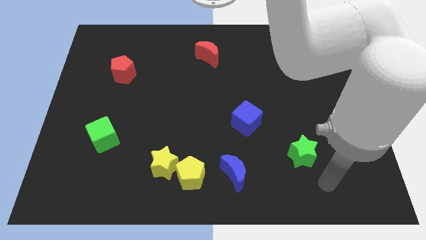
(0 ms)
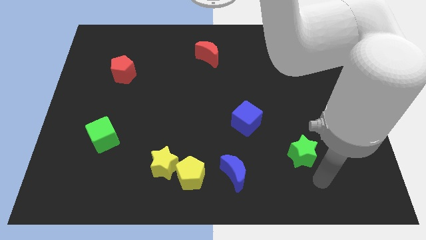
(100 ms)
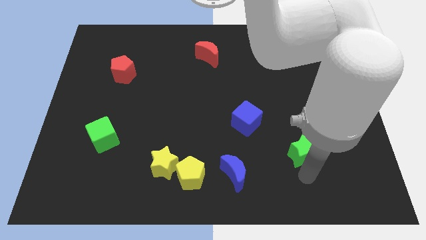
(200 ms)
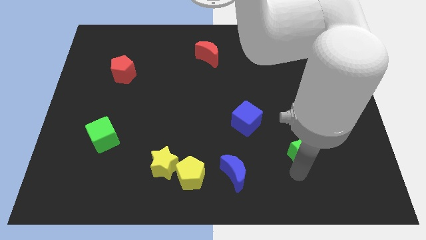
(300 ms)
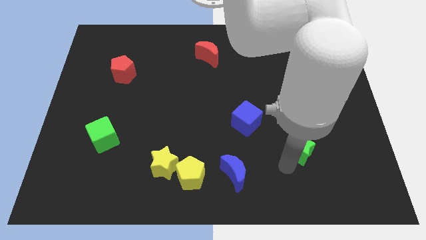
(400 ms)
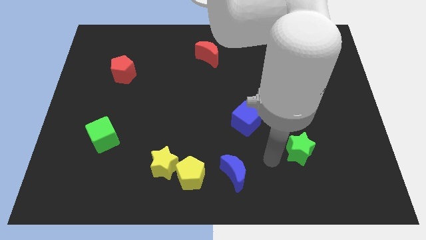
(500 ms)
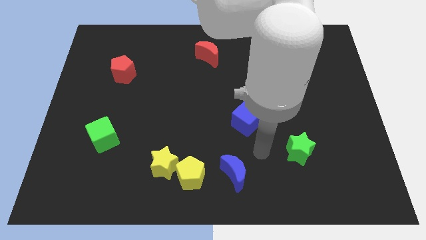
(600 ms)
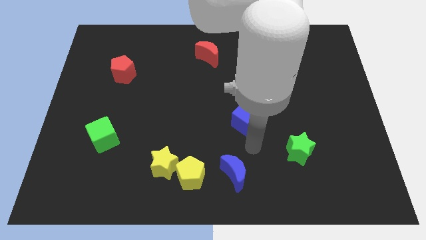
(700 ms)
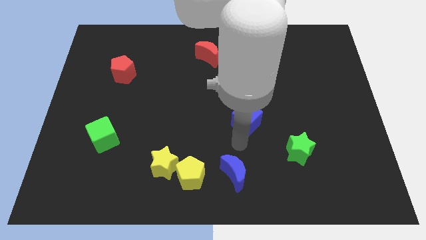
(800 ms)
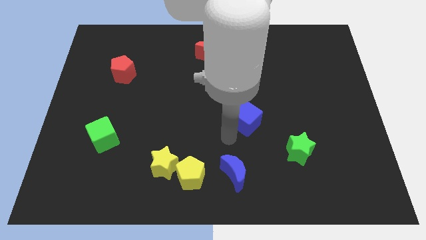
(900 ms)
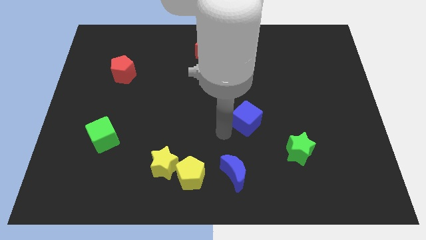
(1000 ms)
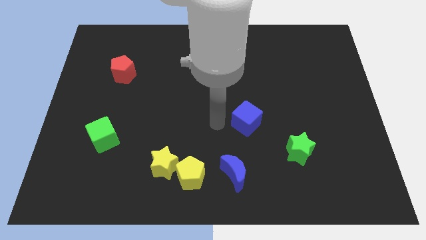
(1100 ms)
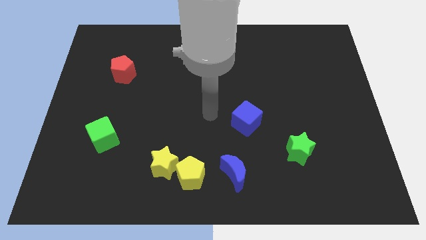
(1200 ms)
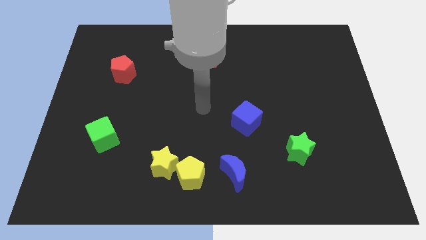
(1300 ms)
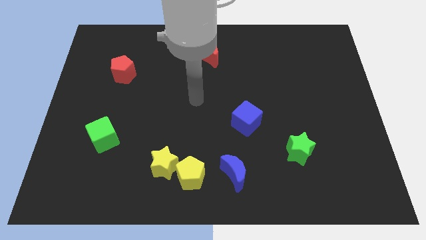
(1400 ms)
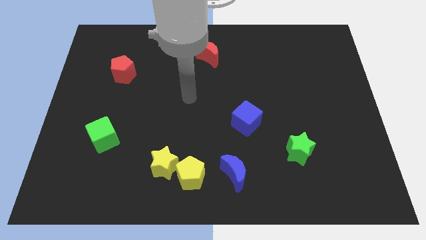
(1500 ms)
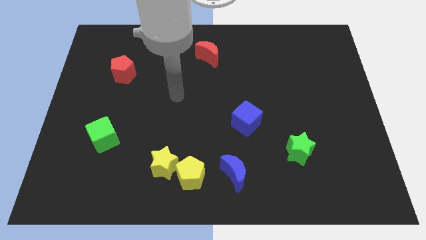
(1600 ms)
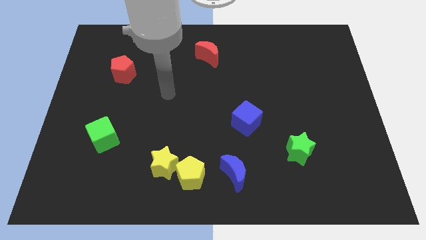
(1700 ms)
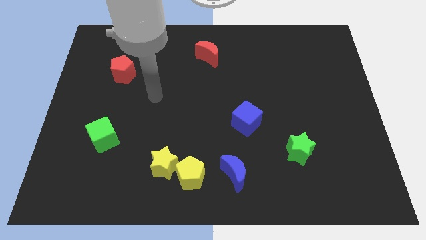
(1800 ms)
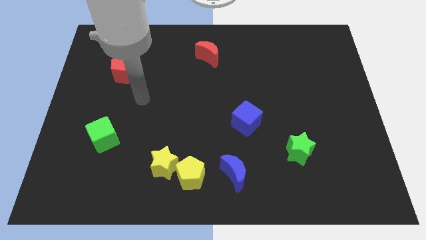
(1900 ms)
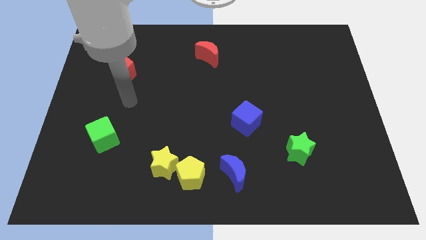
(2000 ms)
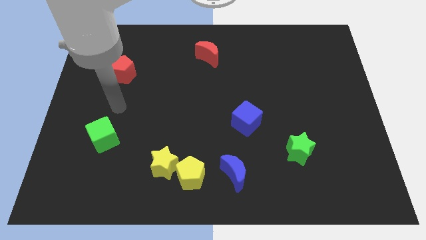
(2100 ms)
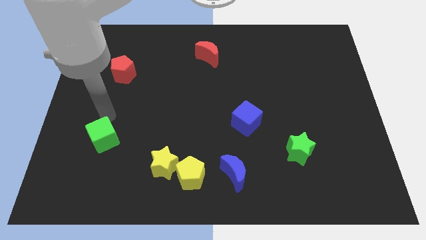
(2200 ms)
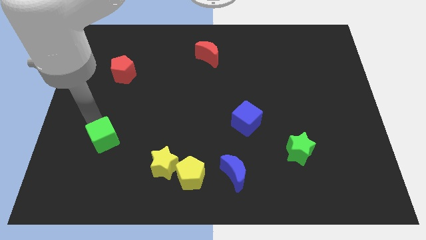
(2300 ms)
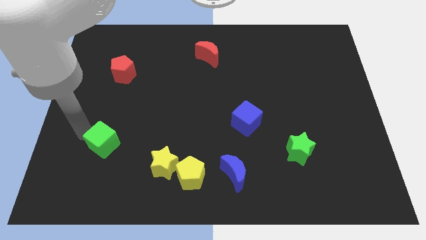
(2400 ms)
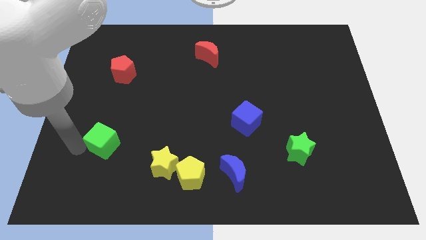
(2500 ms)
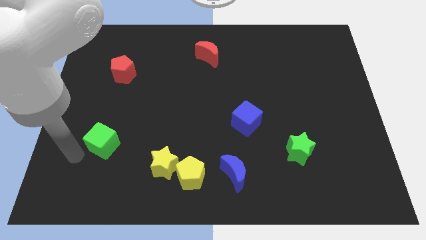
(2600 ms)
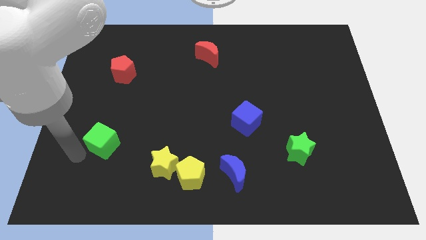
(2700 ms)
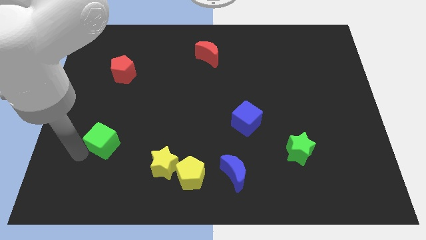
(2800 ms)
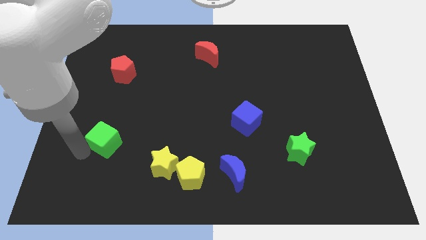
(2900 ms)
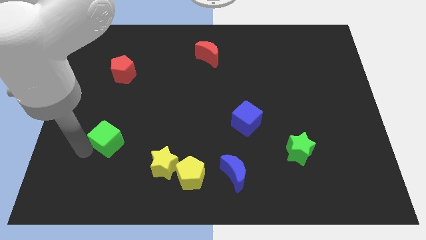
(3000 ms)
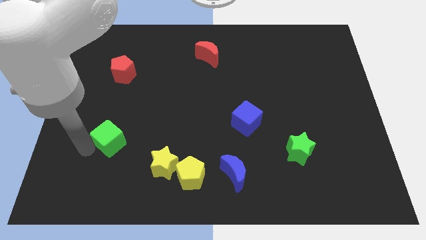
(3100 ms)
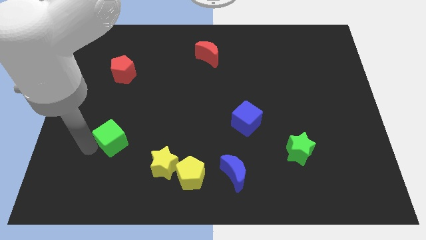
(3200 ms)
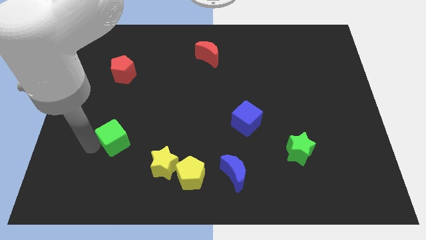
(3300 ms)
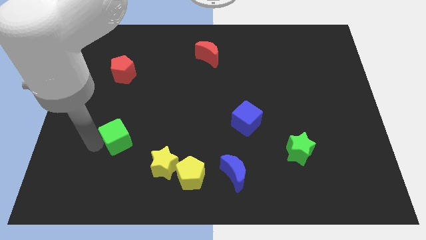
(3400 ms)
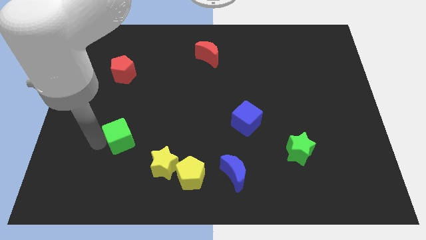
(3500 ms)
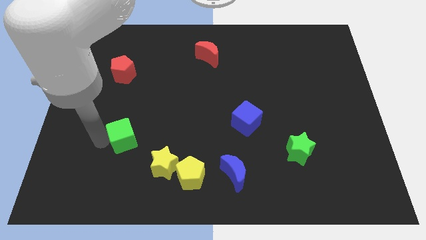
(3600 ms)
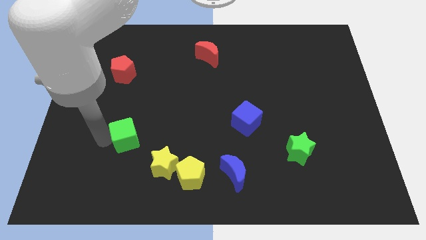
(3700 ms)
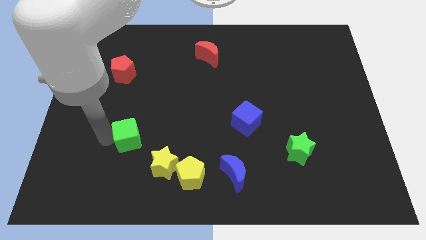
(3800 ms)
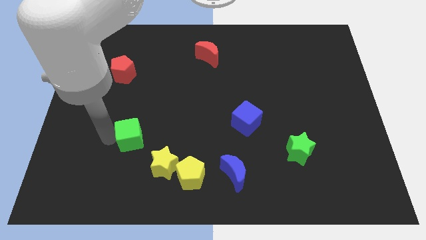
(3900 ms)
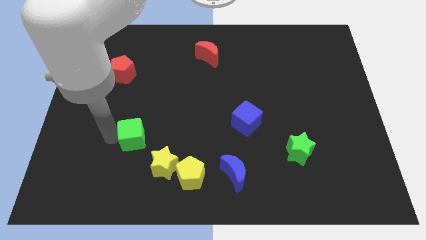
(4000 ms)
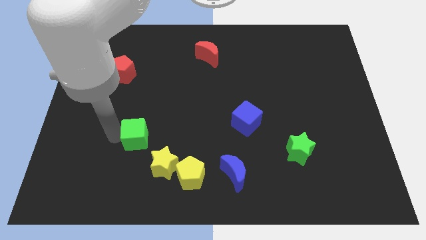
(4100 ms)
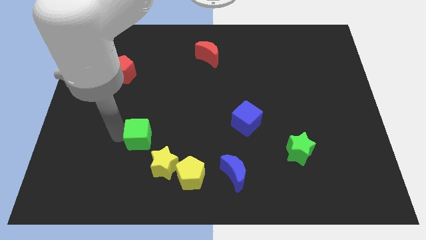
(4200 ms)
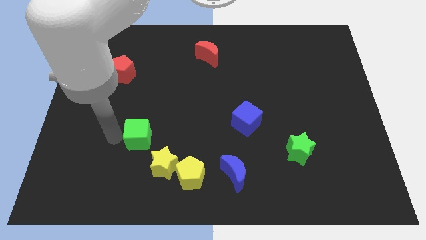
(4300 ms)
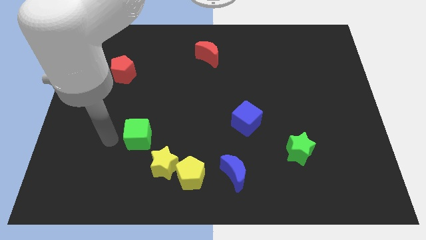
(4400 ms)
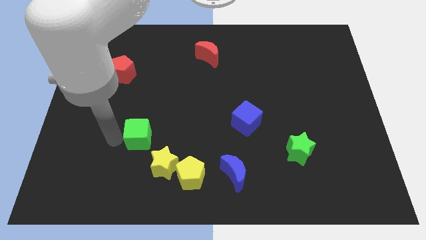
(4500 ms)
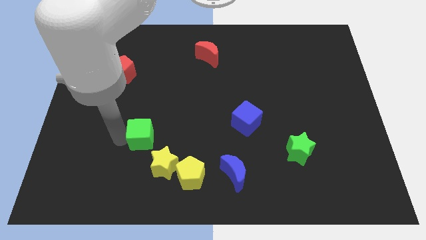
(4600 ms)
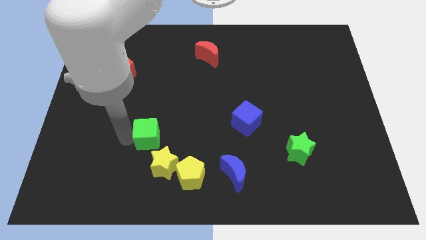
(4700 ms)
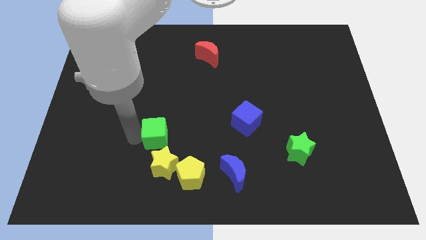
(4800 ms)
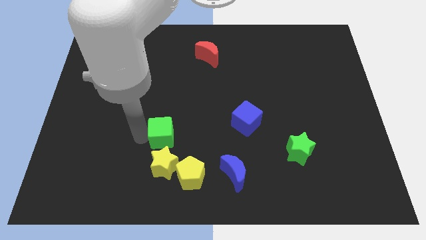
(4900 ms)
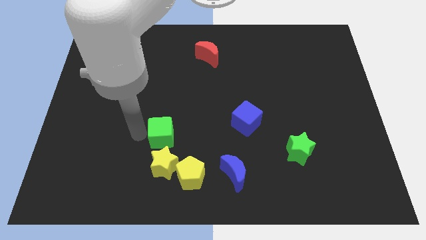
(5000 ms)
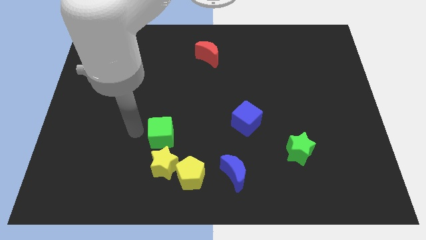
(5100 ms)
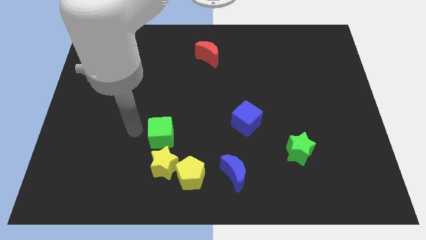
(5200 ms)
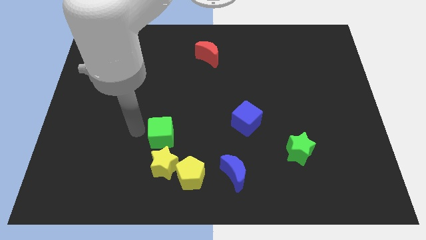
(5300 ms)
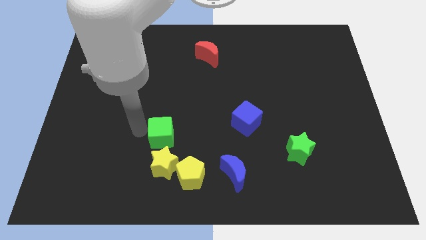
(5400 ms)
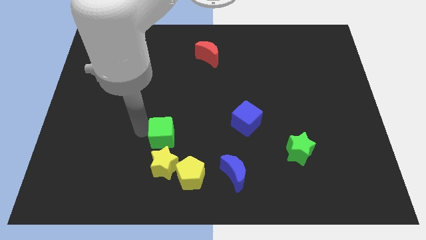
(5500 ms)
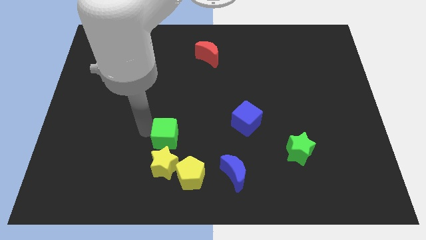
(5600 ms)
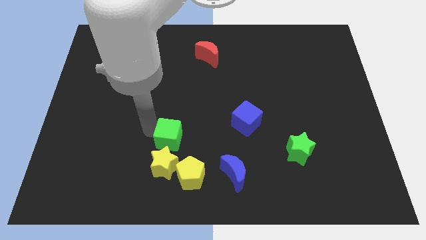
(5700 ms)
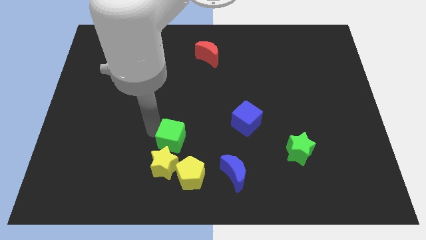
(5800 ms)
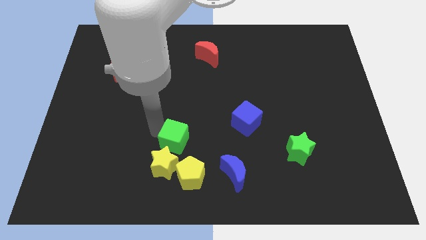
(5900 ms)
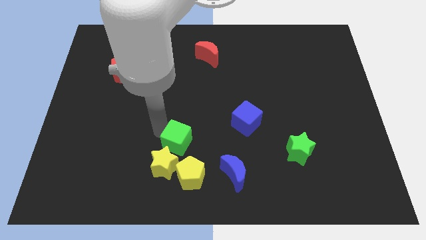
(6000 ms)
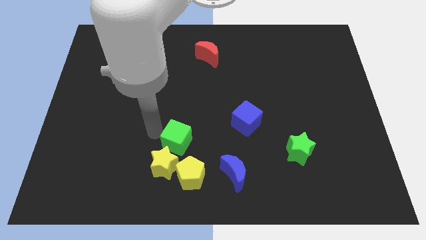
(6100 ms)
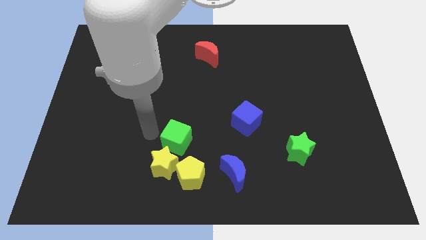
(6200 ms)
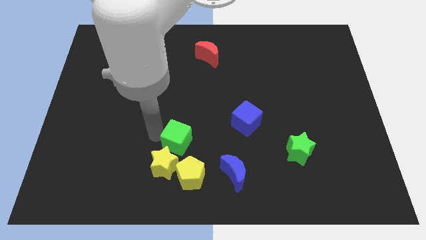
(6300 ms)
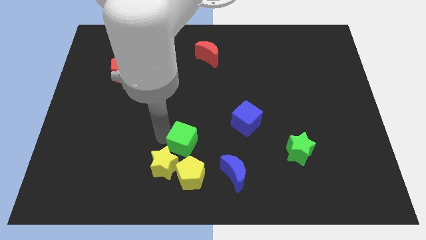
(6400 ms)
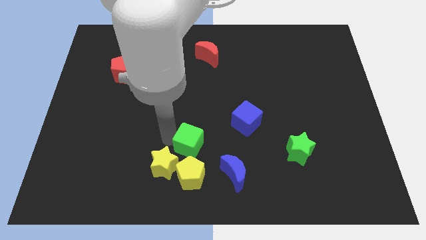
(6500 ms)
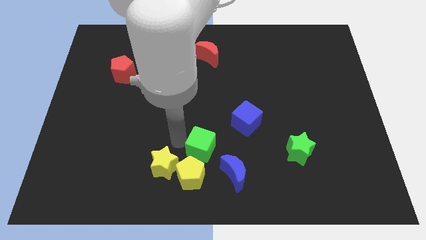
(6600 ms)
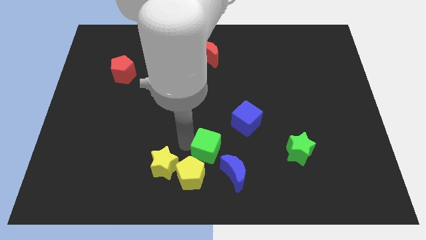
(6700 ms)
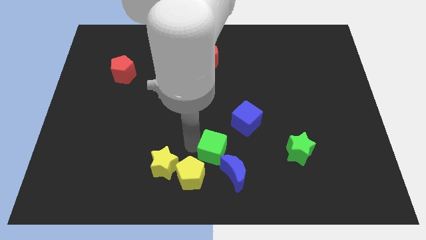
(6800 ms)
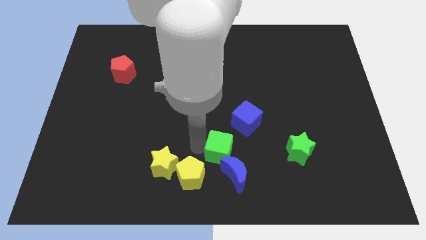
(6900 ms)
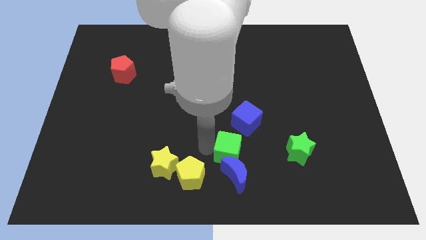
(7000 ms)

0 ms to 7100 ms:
put the green cube to the bottom of the blue cube

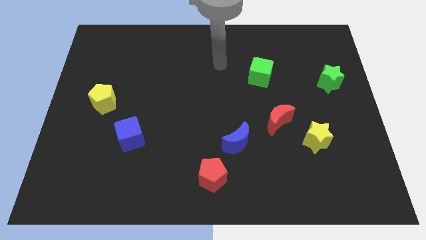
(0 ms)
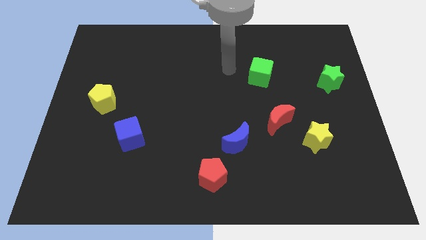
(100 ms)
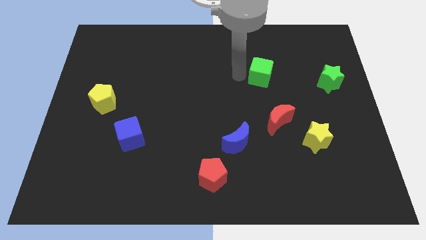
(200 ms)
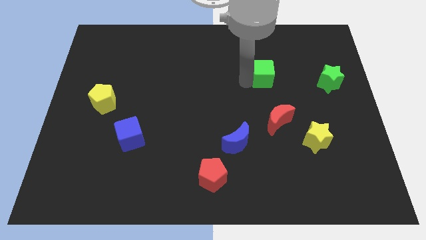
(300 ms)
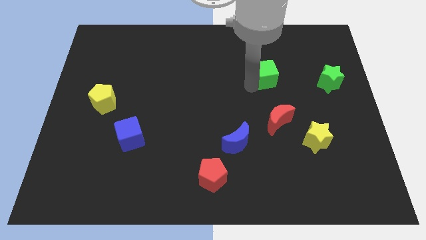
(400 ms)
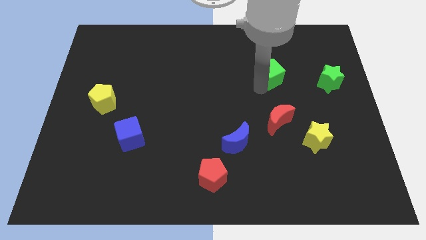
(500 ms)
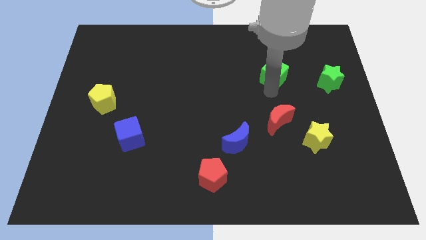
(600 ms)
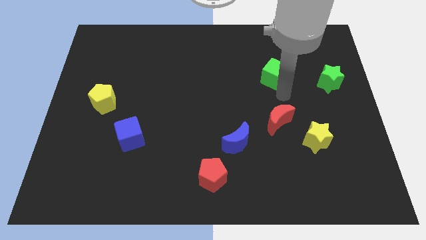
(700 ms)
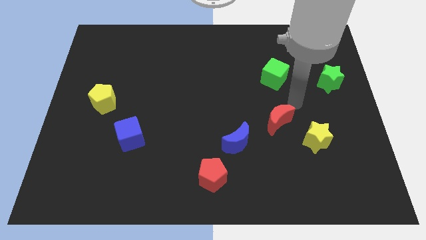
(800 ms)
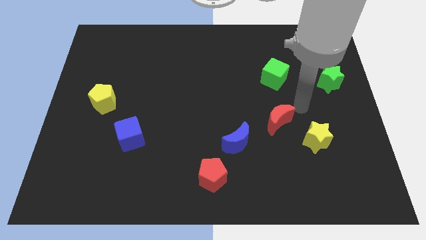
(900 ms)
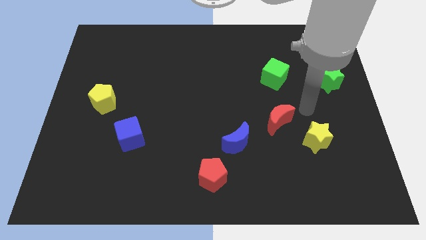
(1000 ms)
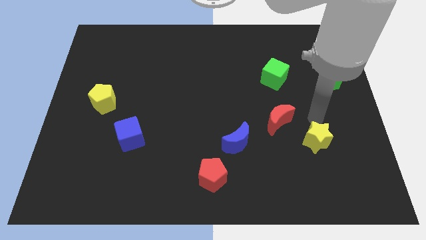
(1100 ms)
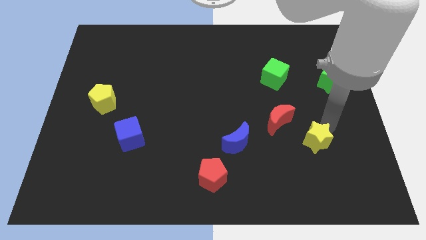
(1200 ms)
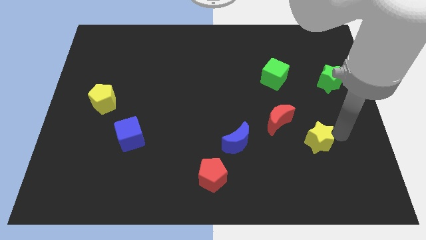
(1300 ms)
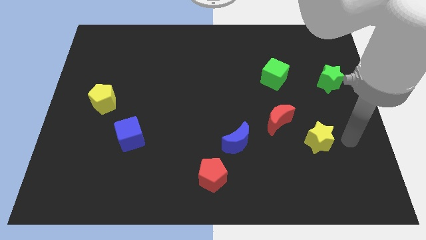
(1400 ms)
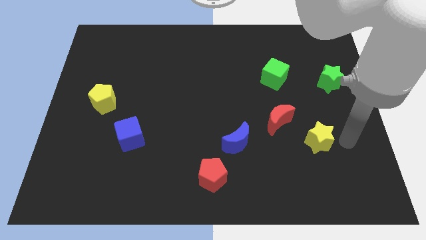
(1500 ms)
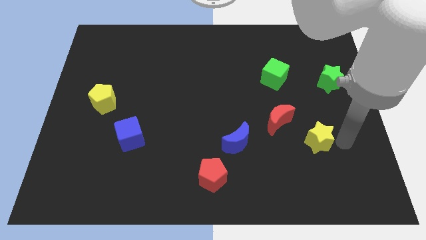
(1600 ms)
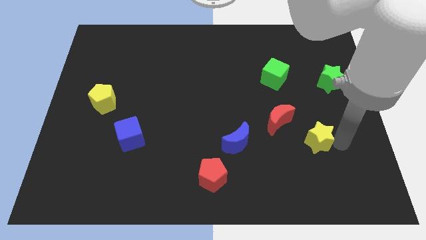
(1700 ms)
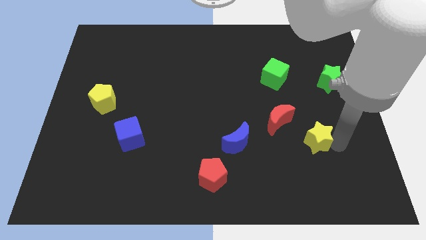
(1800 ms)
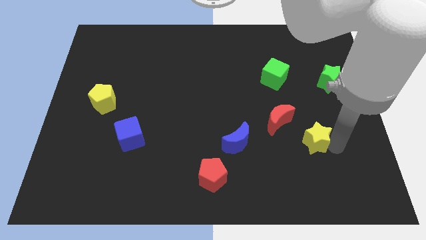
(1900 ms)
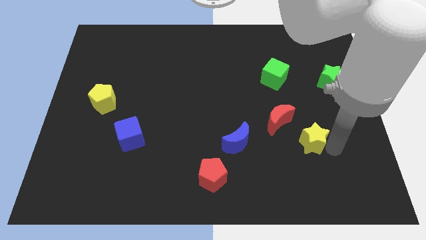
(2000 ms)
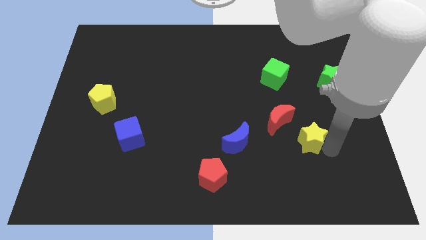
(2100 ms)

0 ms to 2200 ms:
push the yellow star to the right of the blue moon
